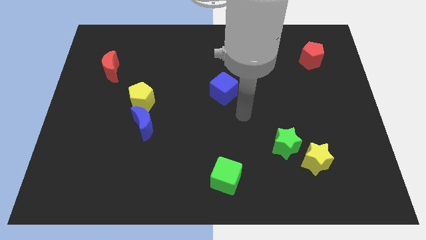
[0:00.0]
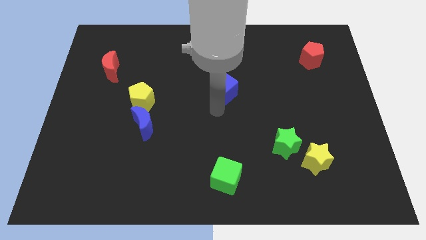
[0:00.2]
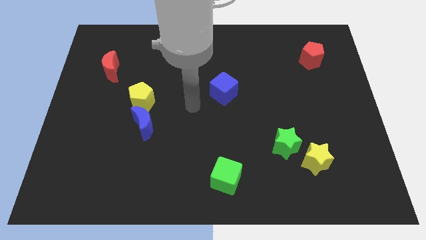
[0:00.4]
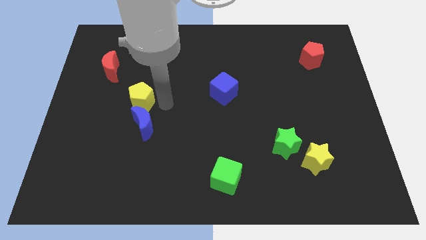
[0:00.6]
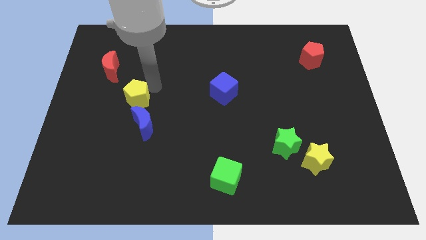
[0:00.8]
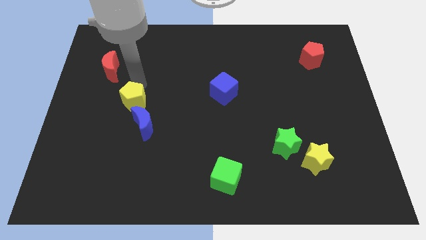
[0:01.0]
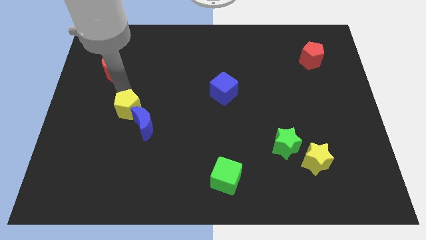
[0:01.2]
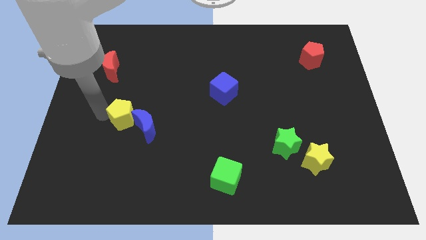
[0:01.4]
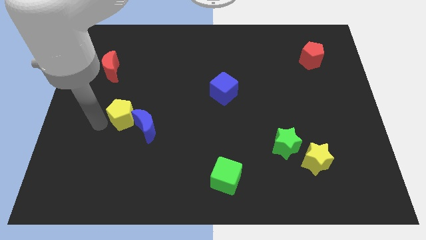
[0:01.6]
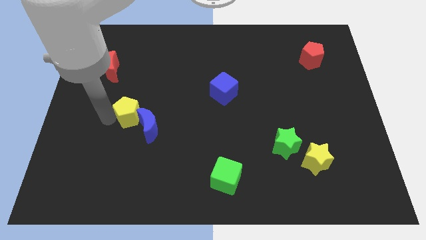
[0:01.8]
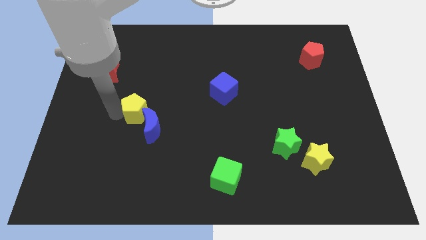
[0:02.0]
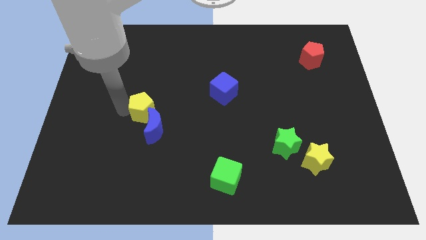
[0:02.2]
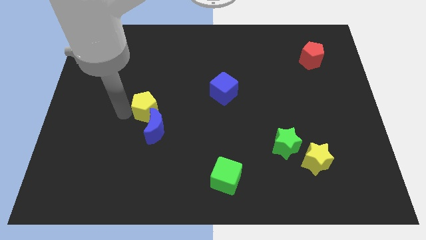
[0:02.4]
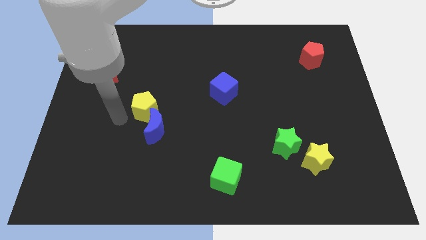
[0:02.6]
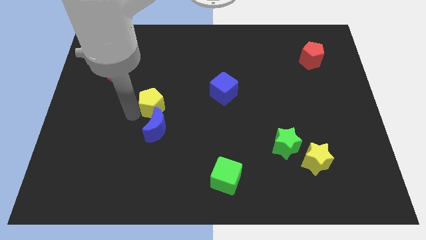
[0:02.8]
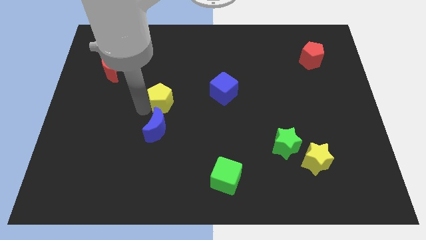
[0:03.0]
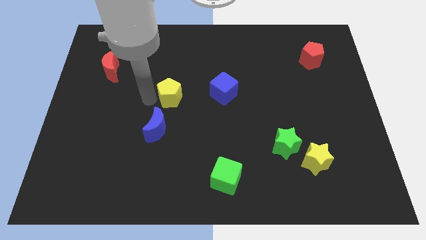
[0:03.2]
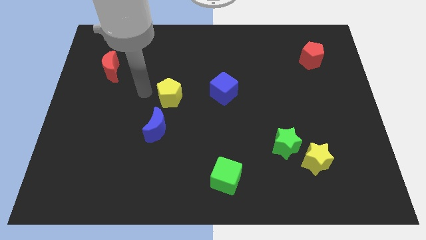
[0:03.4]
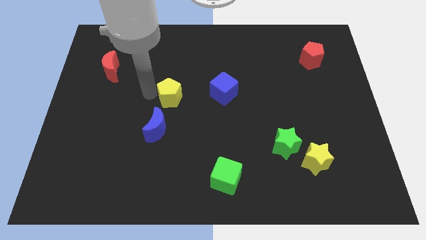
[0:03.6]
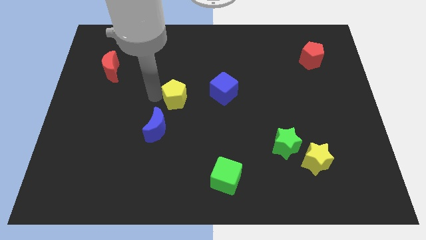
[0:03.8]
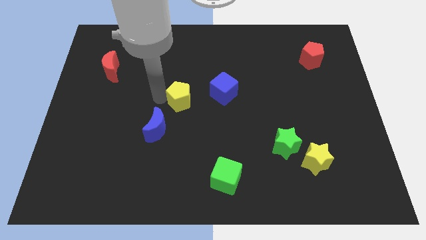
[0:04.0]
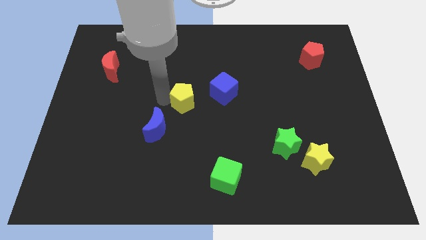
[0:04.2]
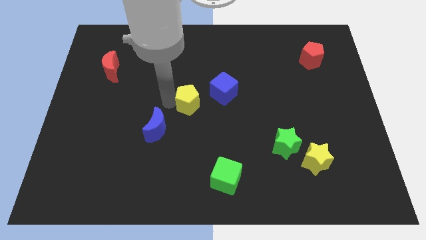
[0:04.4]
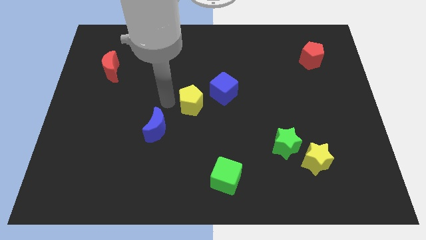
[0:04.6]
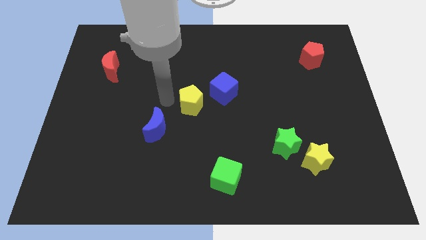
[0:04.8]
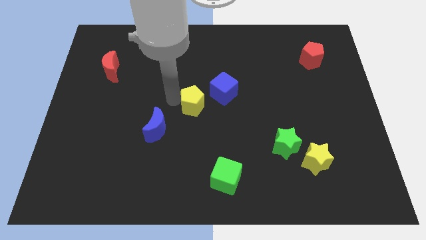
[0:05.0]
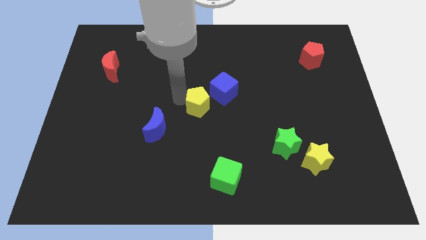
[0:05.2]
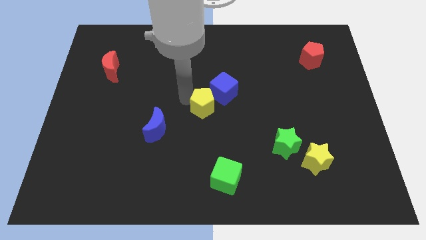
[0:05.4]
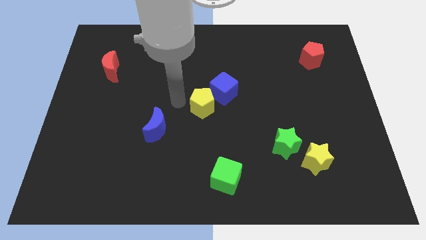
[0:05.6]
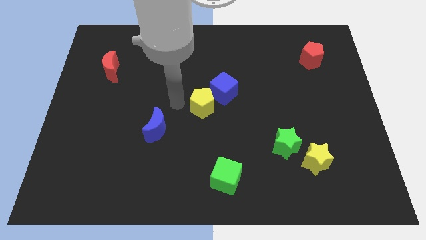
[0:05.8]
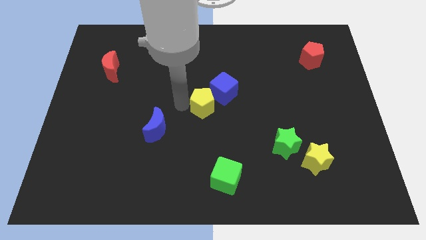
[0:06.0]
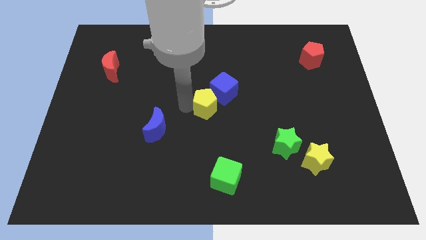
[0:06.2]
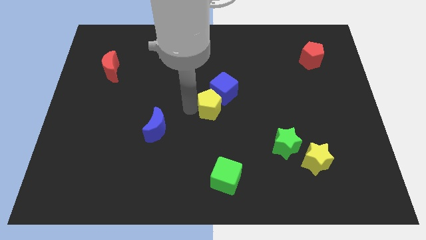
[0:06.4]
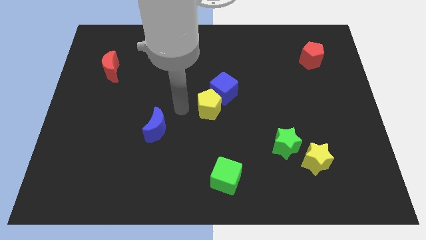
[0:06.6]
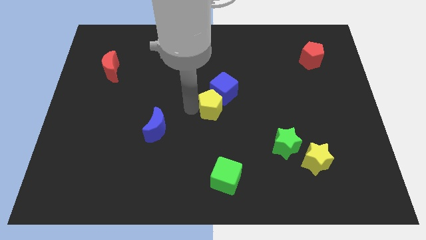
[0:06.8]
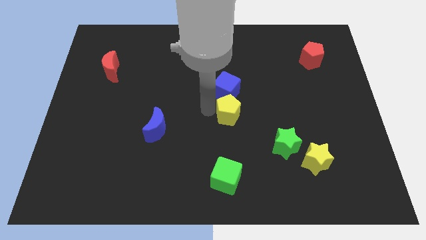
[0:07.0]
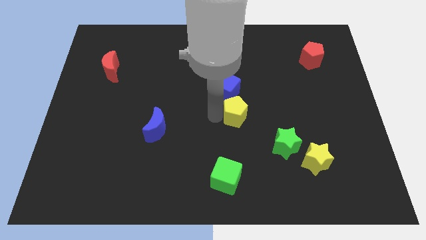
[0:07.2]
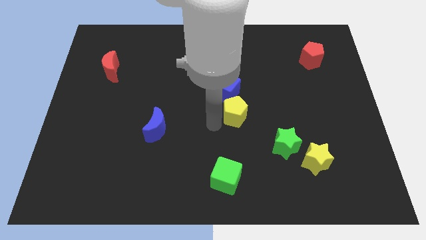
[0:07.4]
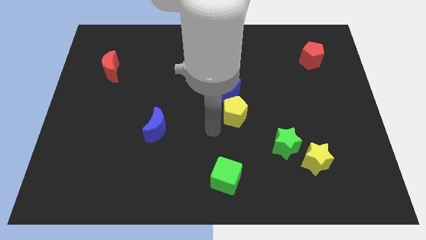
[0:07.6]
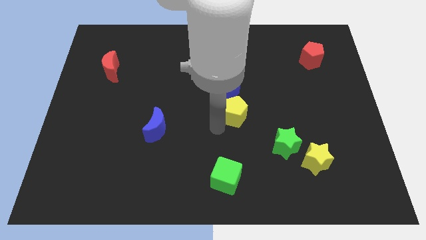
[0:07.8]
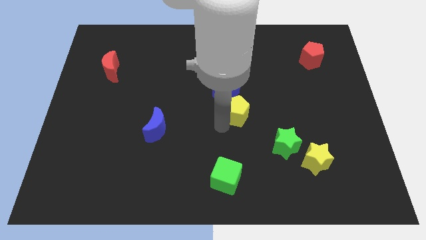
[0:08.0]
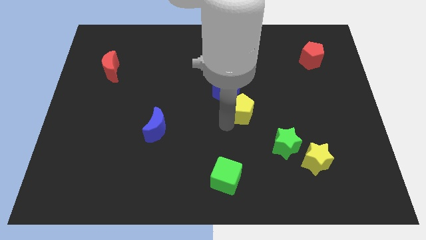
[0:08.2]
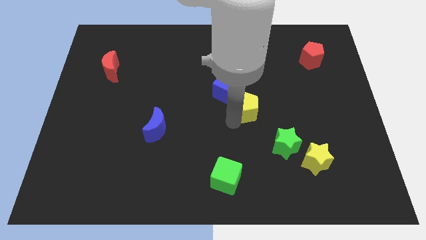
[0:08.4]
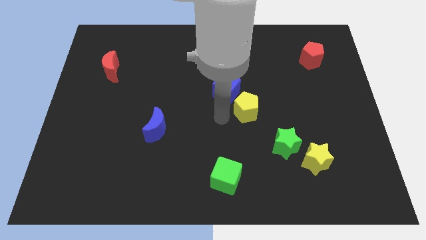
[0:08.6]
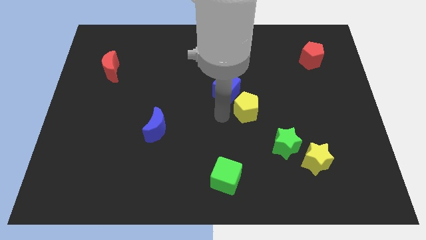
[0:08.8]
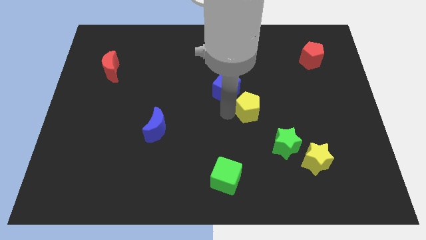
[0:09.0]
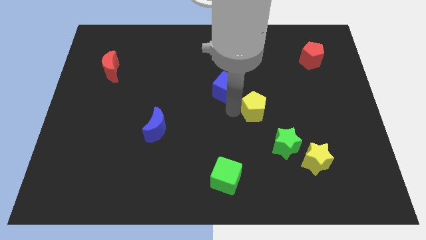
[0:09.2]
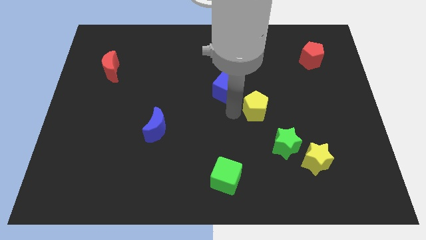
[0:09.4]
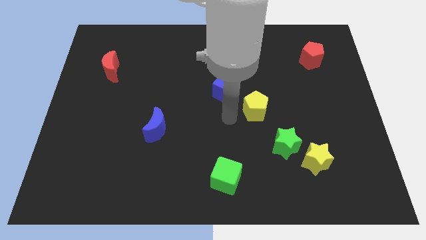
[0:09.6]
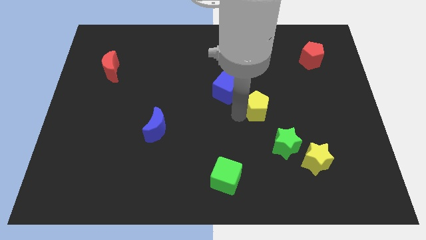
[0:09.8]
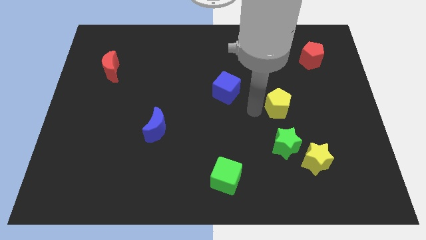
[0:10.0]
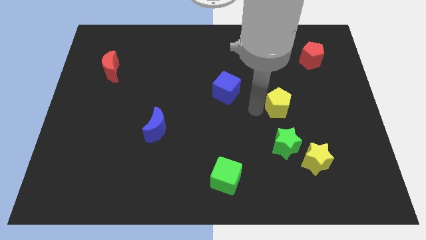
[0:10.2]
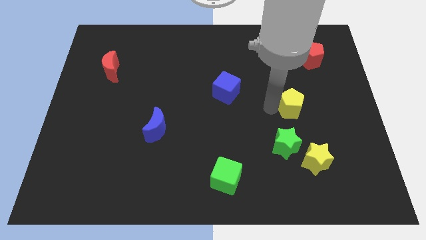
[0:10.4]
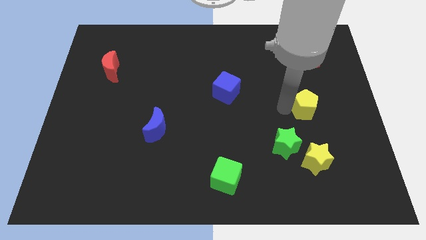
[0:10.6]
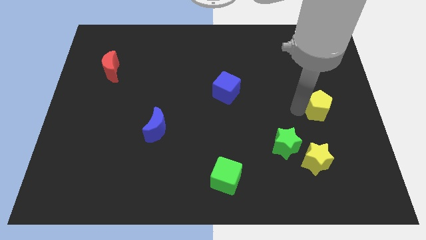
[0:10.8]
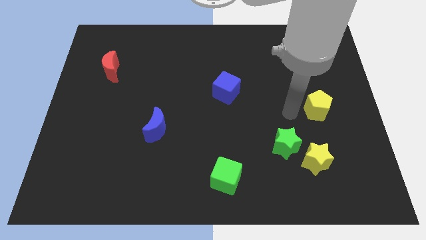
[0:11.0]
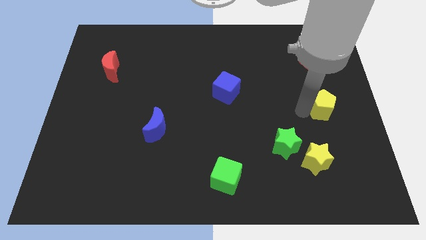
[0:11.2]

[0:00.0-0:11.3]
put the yellow pentagon to the center right

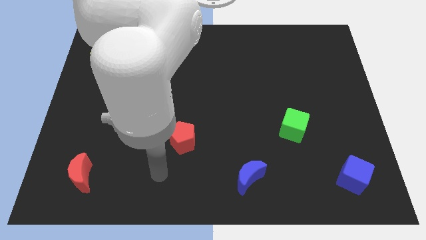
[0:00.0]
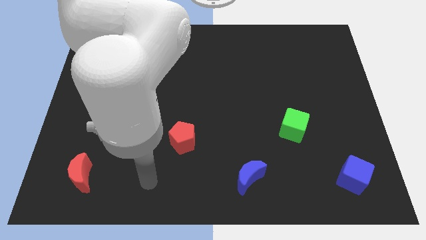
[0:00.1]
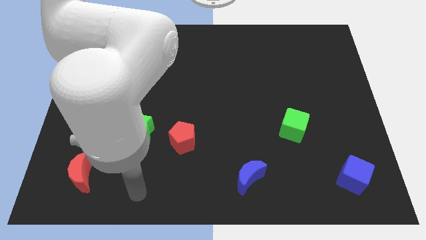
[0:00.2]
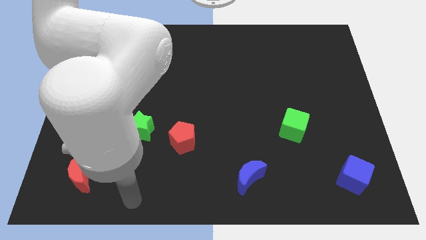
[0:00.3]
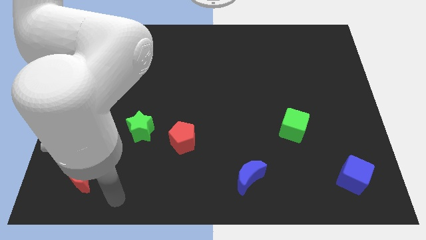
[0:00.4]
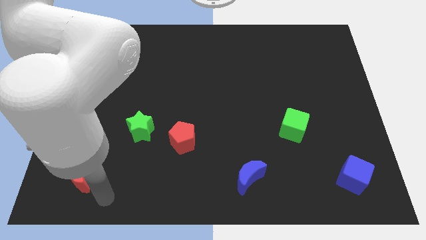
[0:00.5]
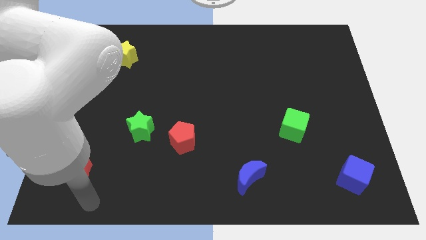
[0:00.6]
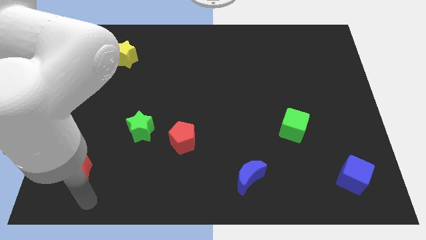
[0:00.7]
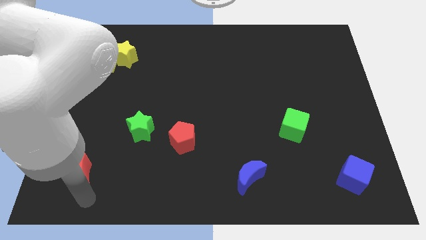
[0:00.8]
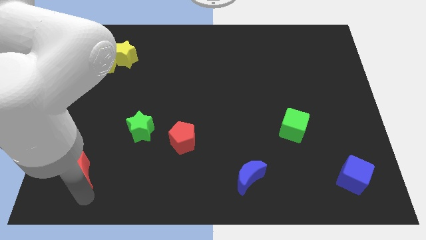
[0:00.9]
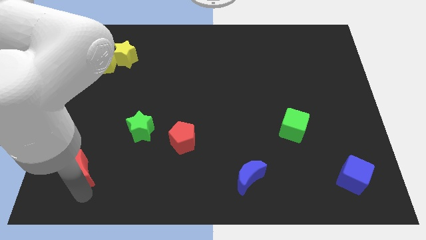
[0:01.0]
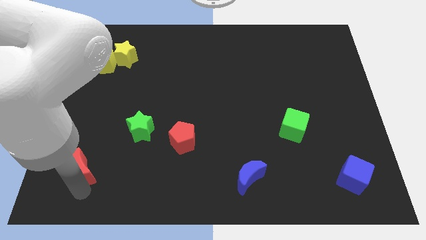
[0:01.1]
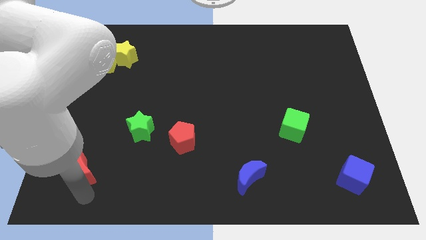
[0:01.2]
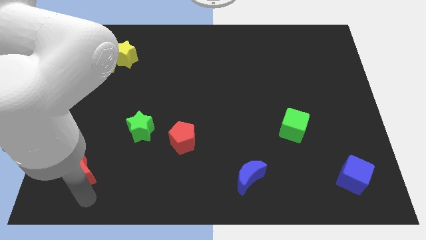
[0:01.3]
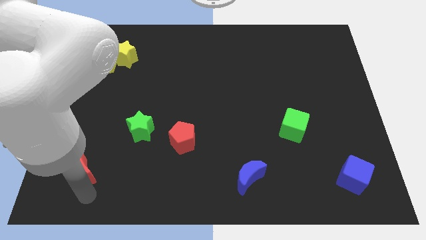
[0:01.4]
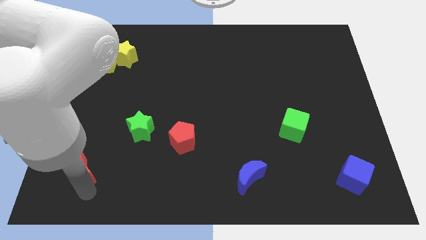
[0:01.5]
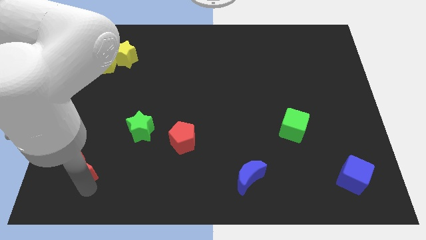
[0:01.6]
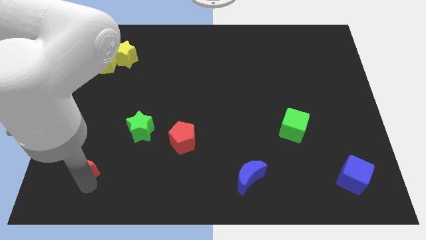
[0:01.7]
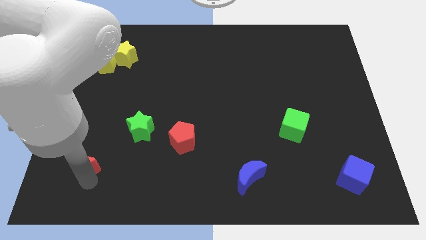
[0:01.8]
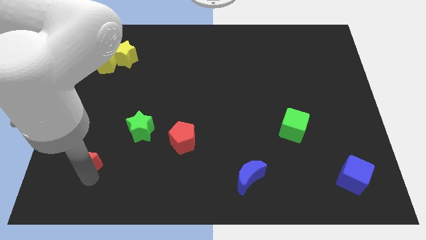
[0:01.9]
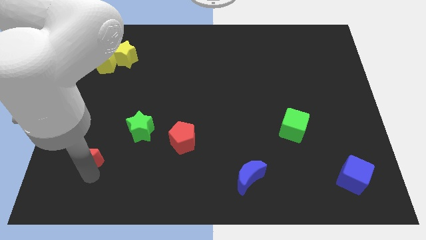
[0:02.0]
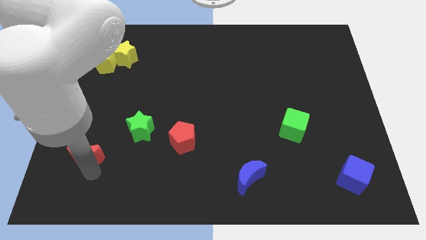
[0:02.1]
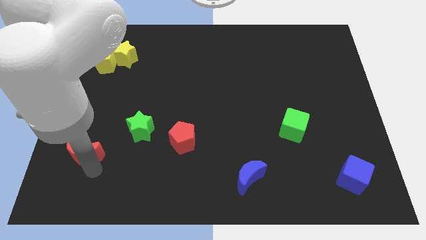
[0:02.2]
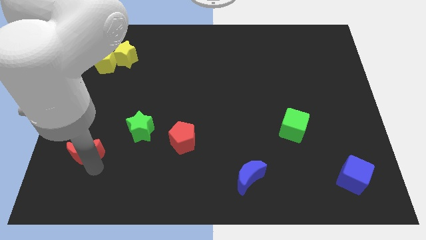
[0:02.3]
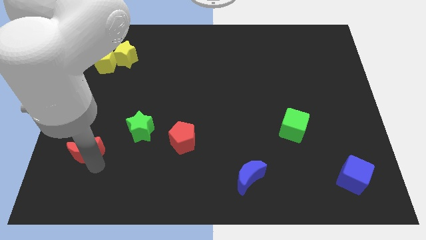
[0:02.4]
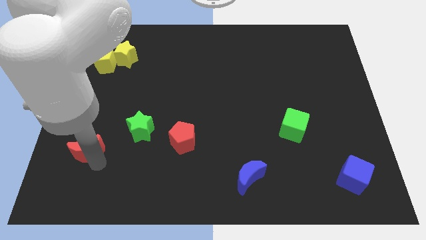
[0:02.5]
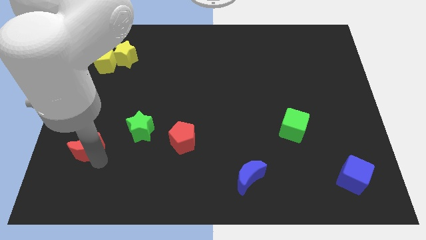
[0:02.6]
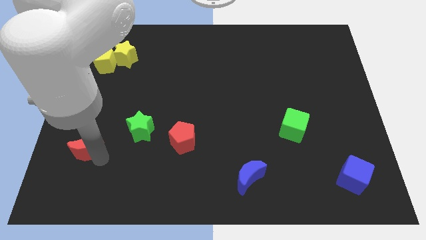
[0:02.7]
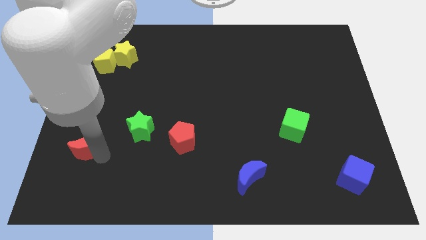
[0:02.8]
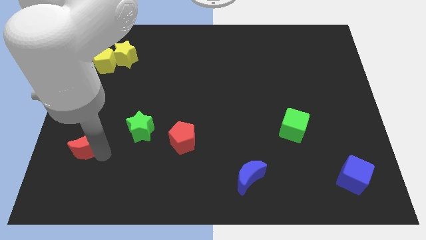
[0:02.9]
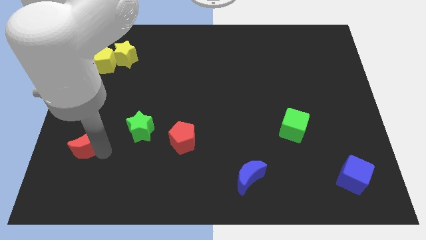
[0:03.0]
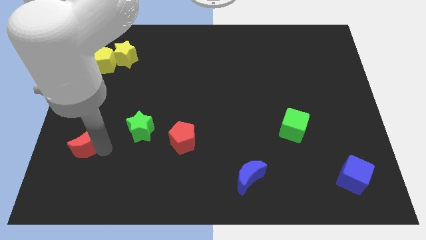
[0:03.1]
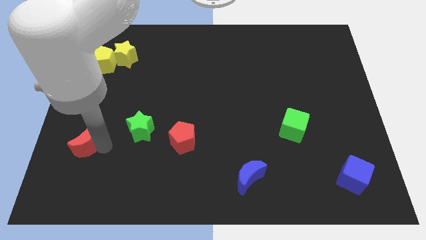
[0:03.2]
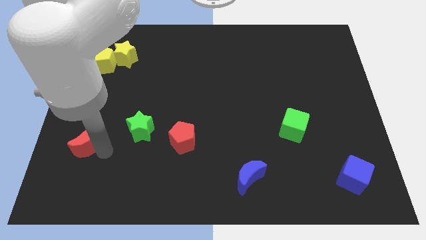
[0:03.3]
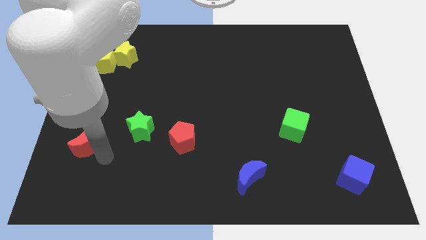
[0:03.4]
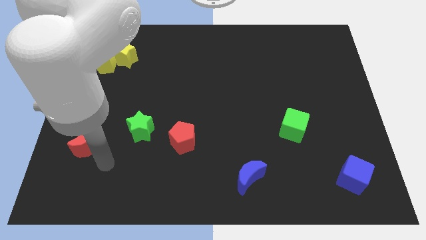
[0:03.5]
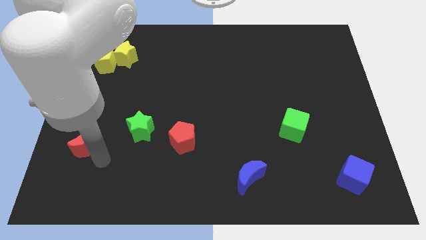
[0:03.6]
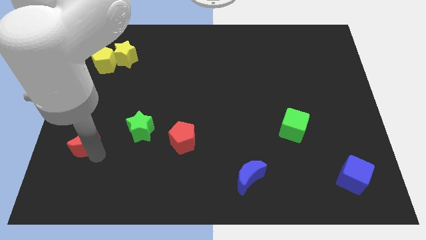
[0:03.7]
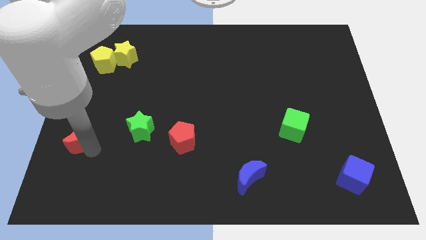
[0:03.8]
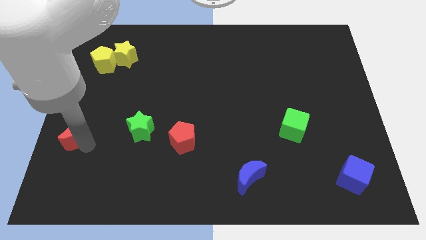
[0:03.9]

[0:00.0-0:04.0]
slide the red moon to the left side of the board
